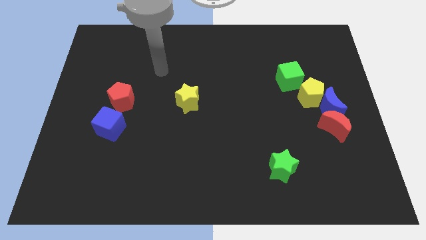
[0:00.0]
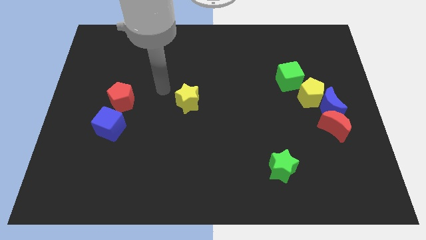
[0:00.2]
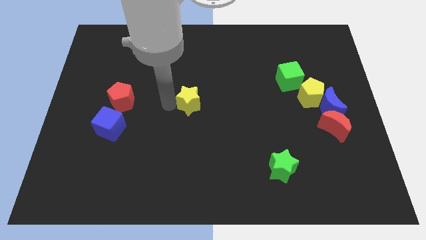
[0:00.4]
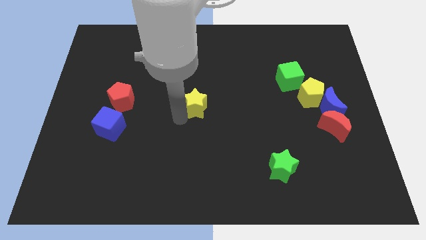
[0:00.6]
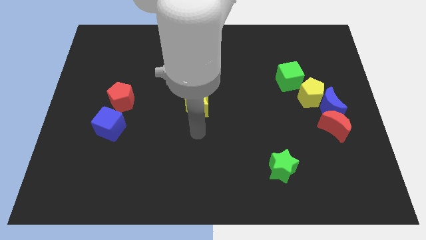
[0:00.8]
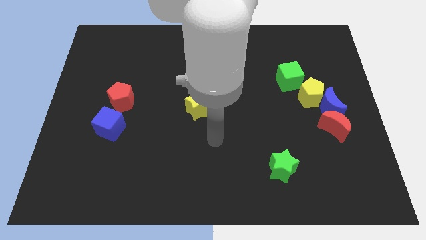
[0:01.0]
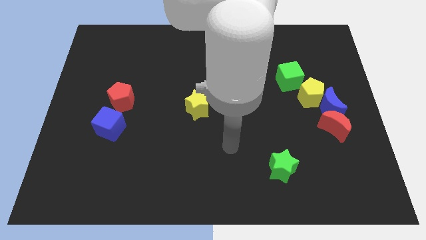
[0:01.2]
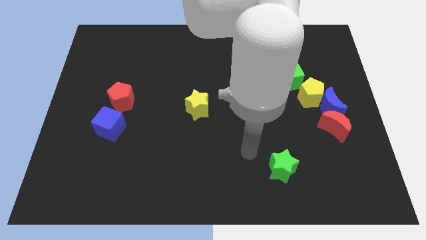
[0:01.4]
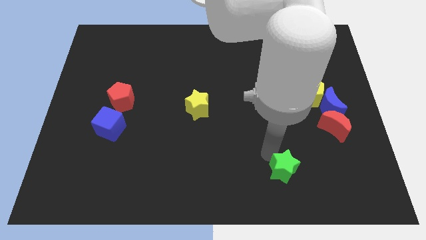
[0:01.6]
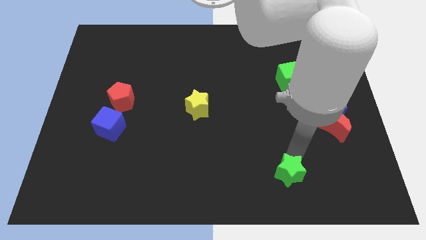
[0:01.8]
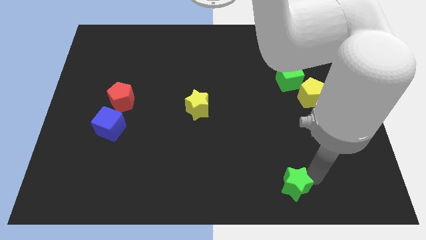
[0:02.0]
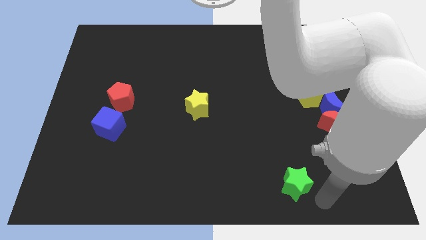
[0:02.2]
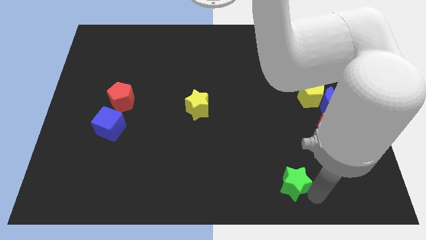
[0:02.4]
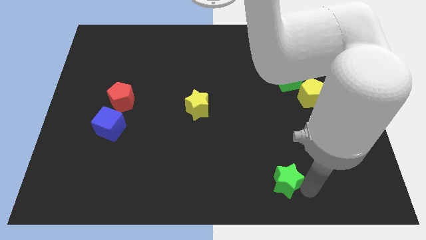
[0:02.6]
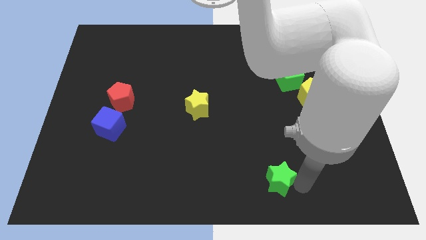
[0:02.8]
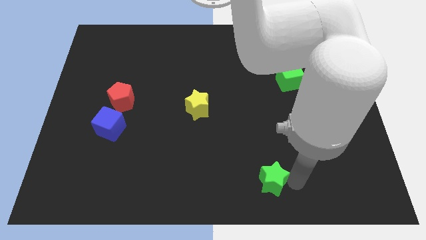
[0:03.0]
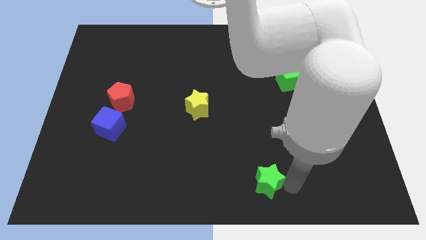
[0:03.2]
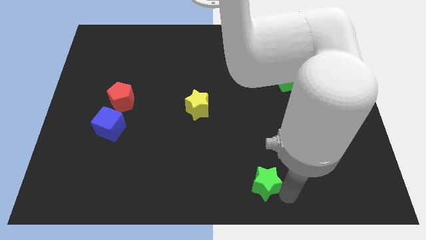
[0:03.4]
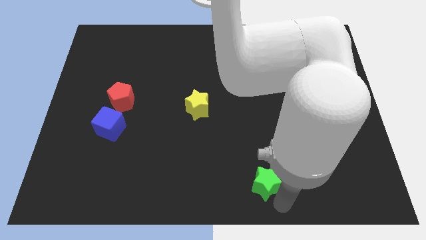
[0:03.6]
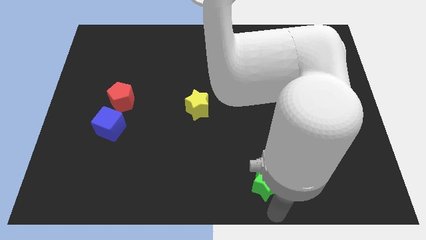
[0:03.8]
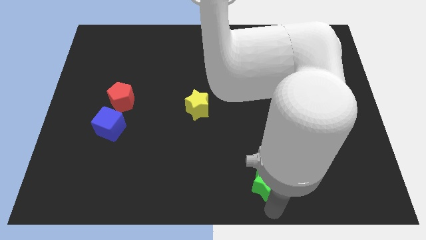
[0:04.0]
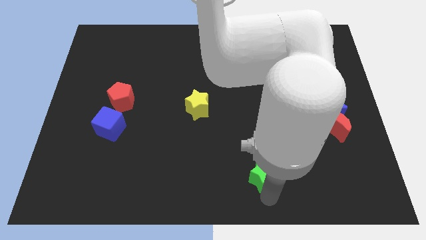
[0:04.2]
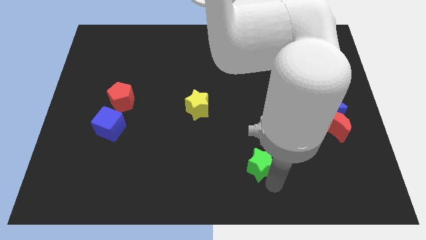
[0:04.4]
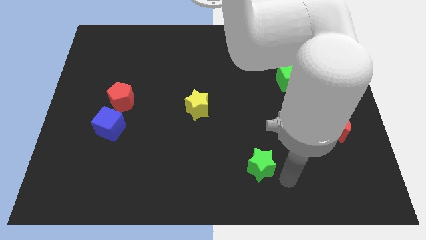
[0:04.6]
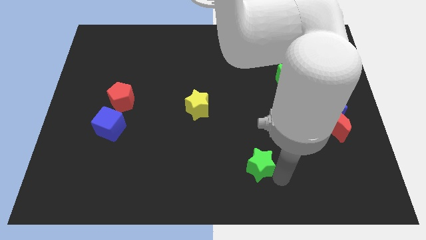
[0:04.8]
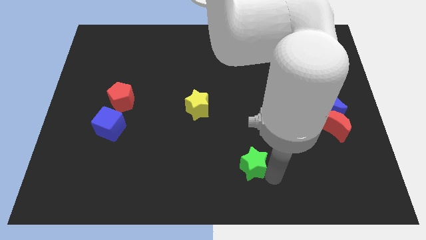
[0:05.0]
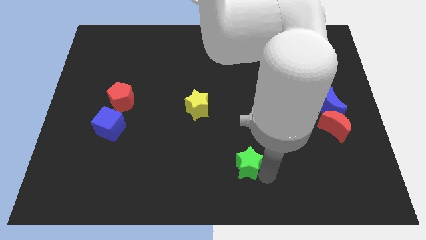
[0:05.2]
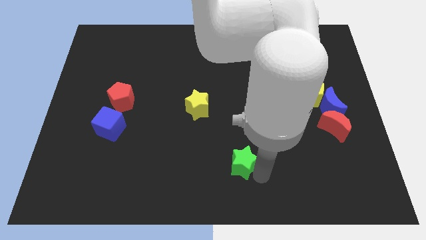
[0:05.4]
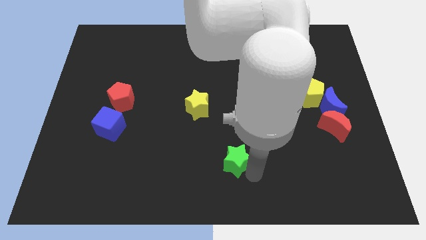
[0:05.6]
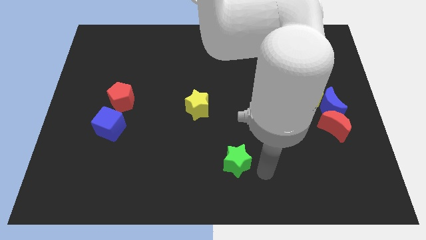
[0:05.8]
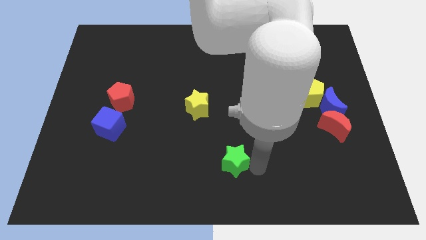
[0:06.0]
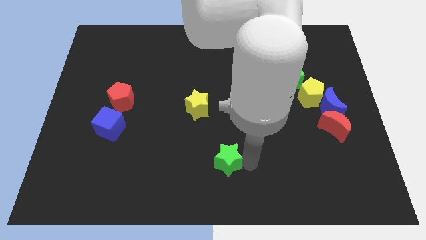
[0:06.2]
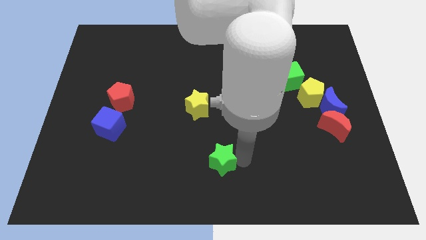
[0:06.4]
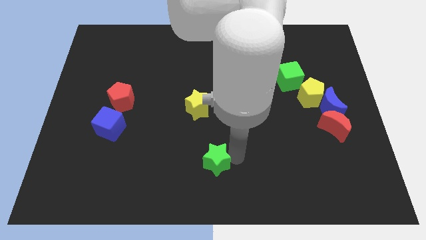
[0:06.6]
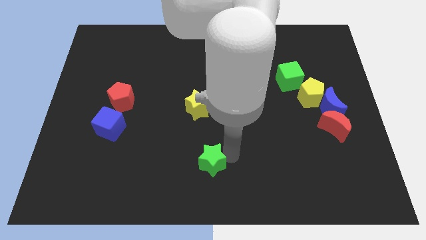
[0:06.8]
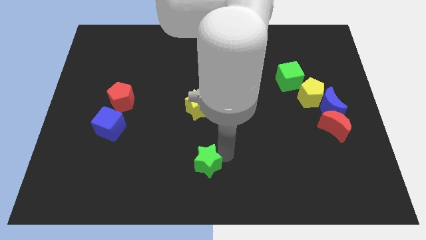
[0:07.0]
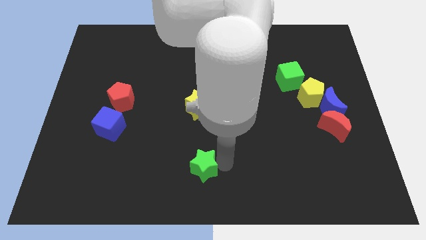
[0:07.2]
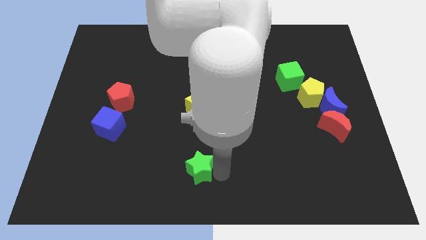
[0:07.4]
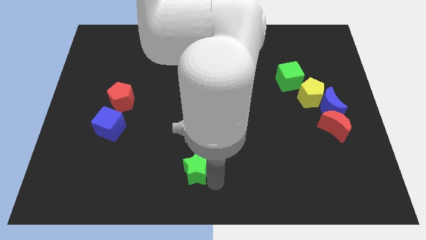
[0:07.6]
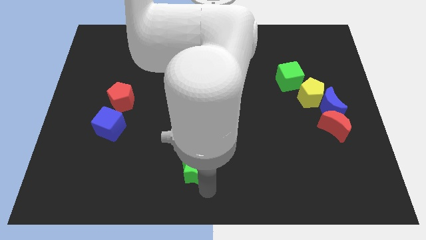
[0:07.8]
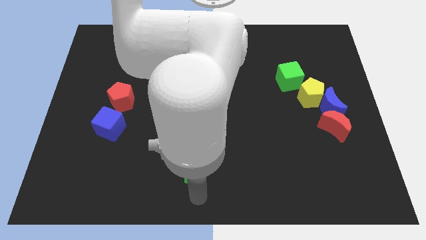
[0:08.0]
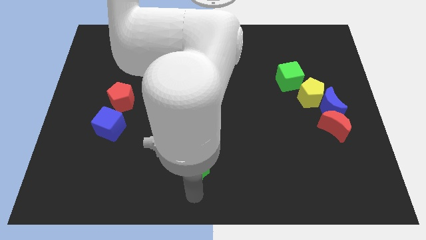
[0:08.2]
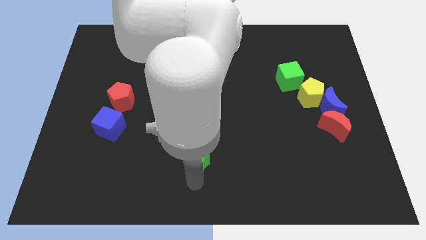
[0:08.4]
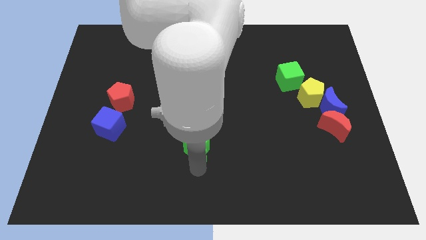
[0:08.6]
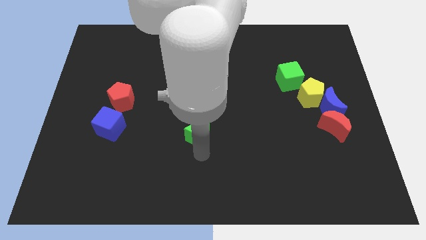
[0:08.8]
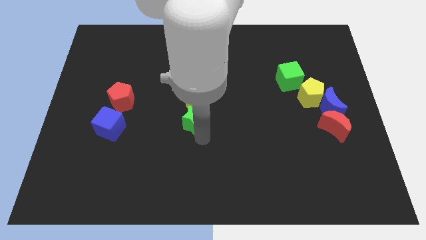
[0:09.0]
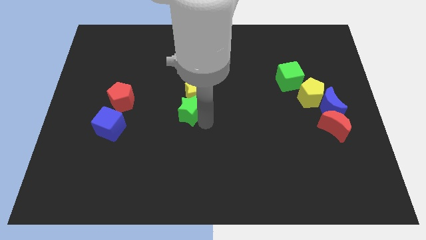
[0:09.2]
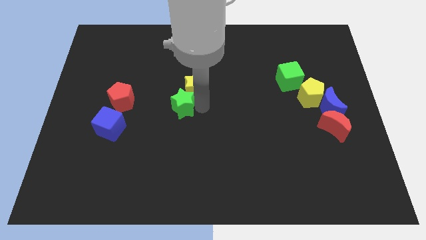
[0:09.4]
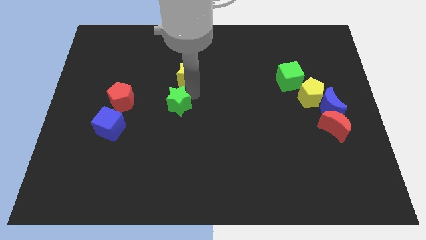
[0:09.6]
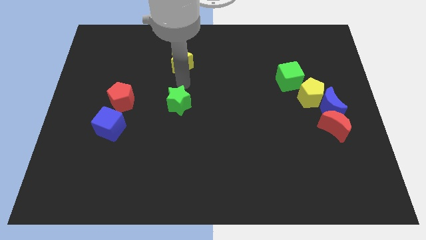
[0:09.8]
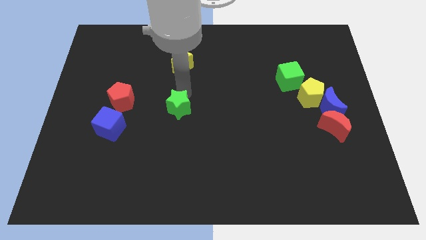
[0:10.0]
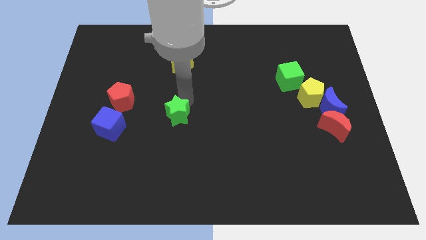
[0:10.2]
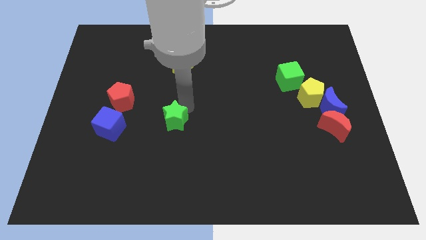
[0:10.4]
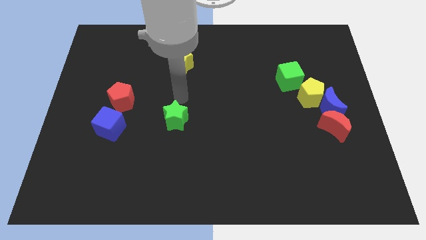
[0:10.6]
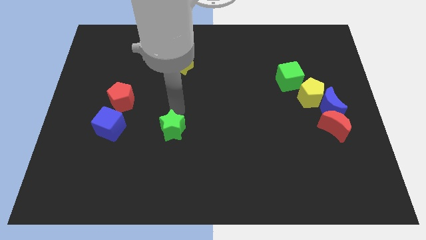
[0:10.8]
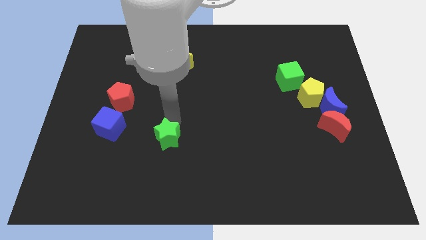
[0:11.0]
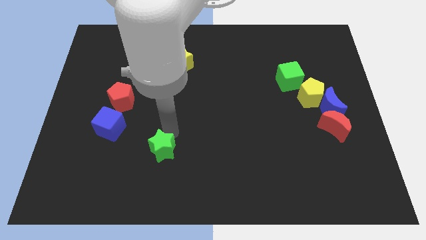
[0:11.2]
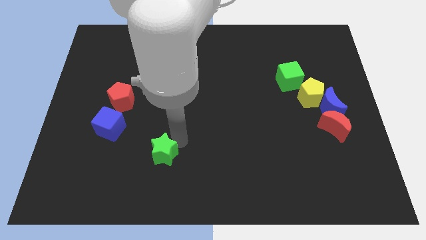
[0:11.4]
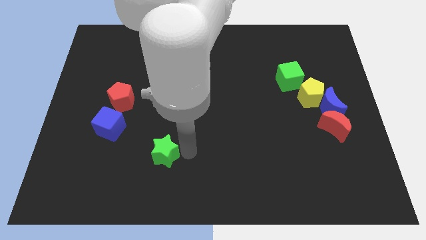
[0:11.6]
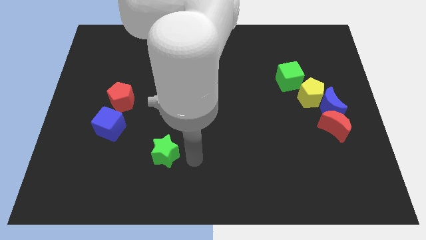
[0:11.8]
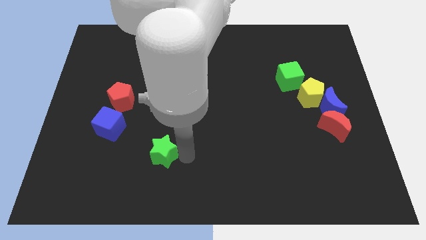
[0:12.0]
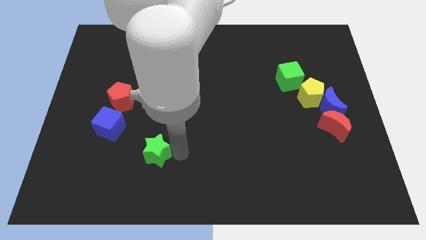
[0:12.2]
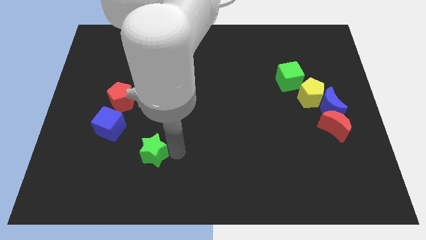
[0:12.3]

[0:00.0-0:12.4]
slide the green star to the bottom right side of the blue cube
